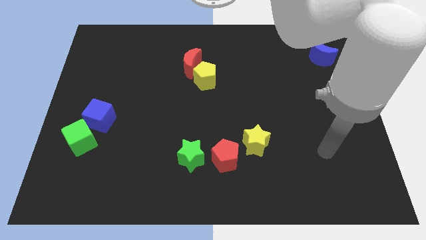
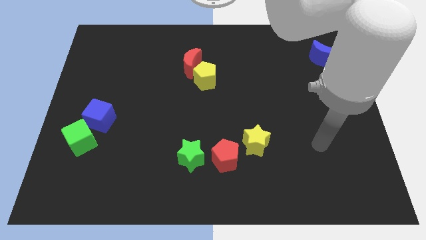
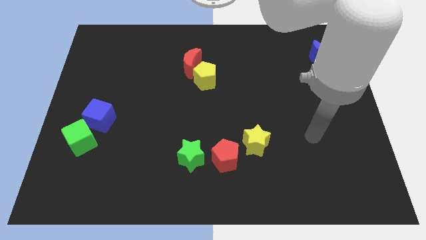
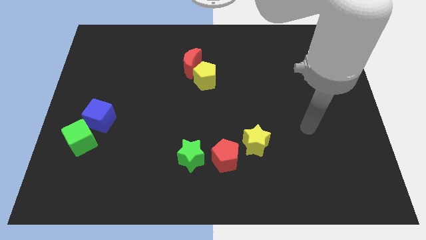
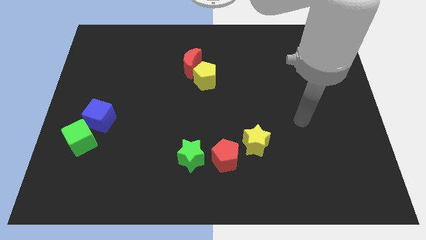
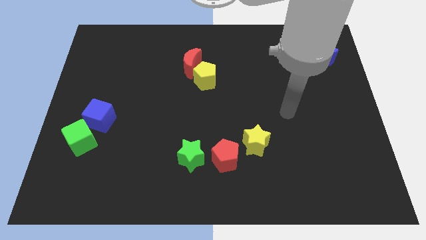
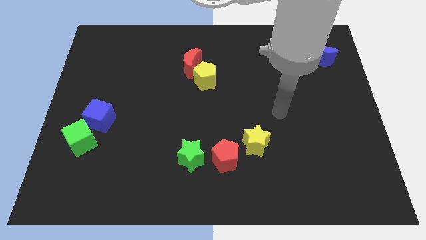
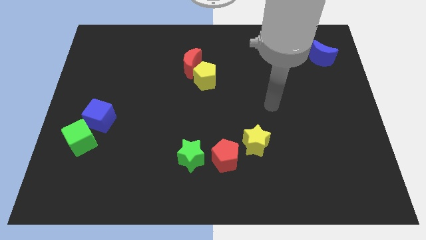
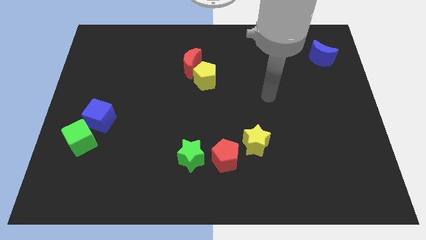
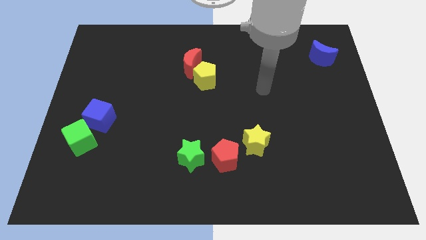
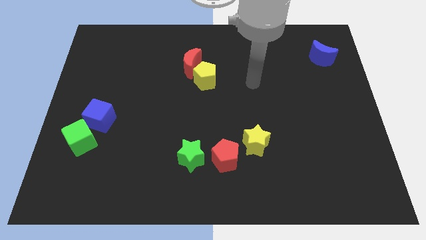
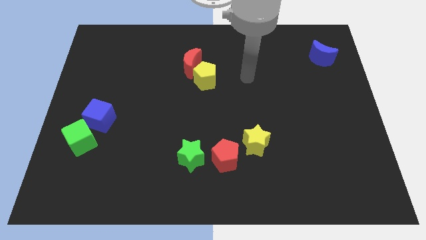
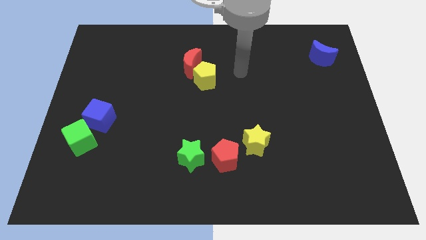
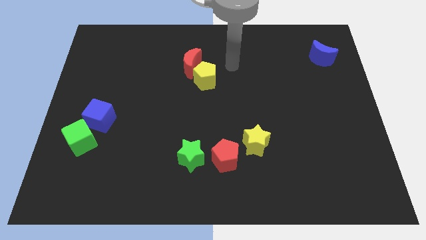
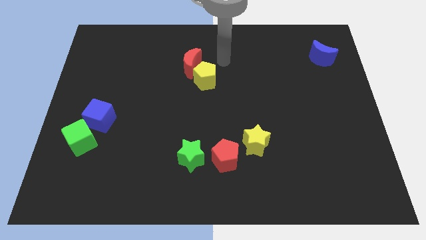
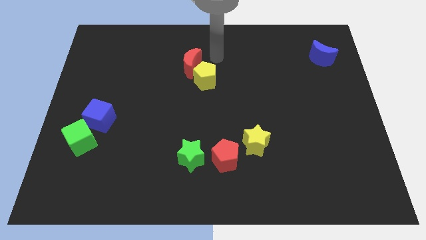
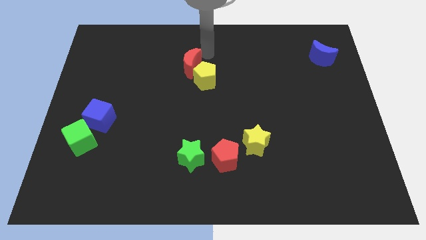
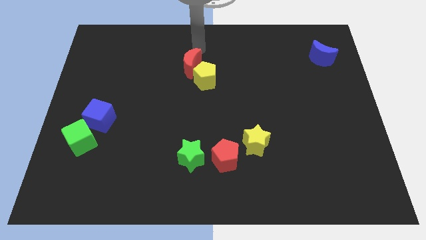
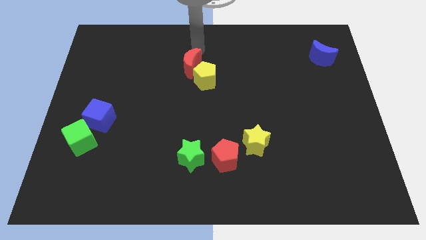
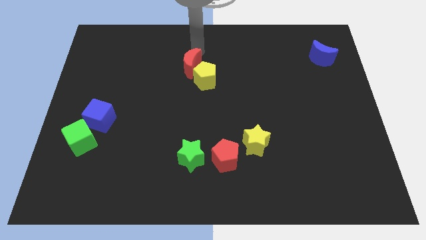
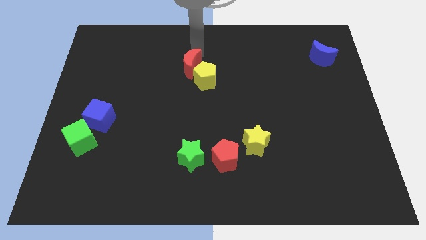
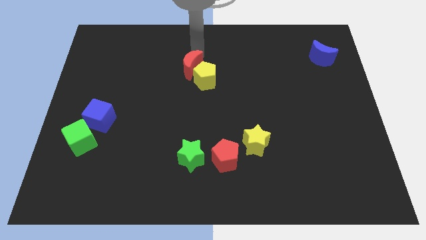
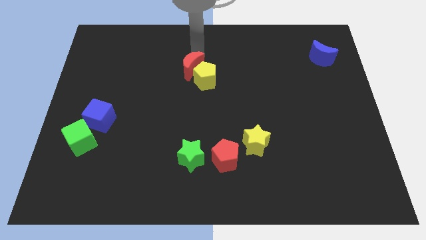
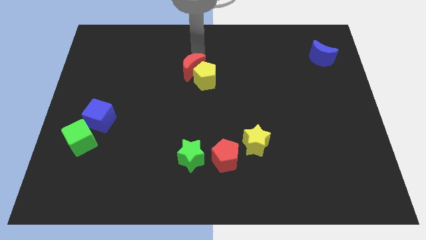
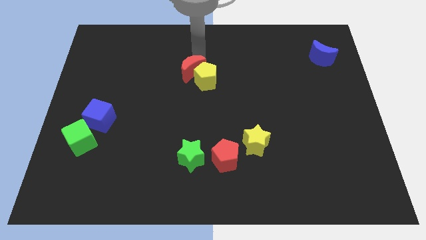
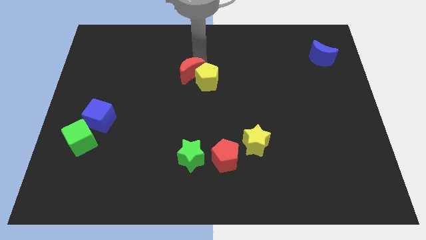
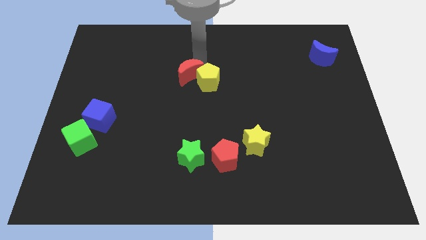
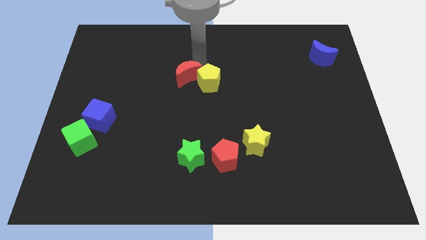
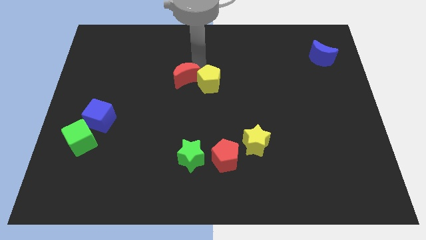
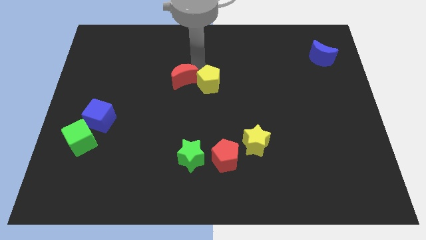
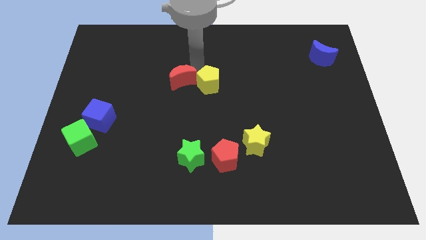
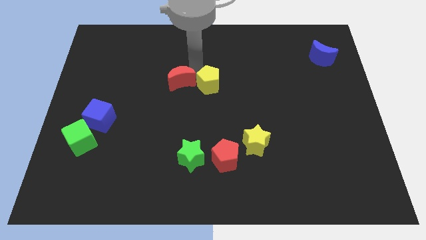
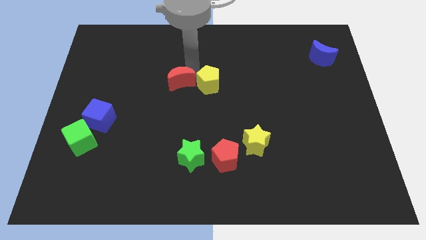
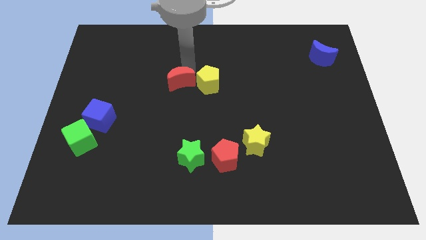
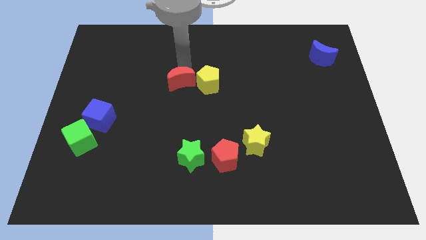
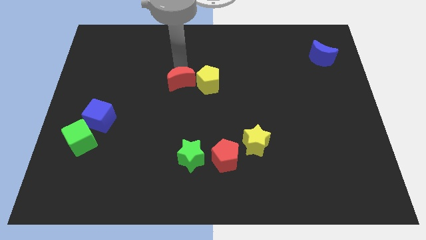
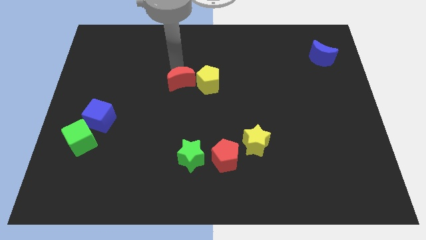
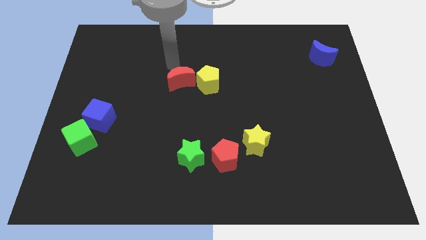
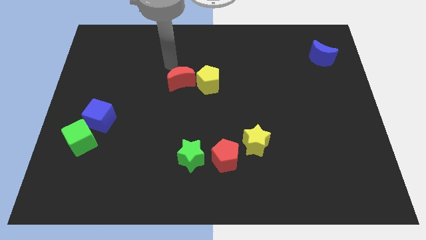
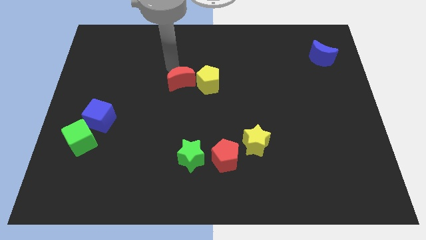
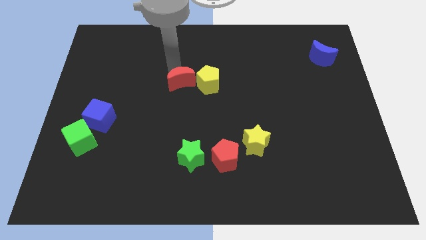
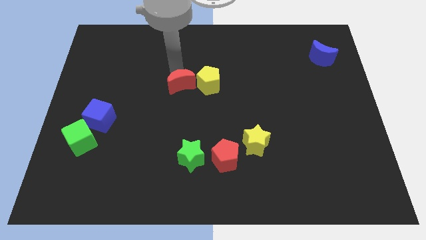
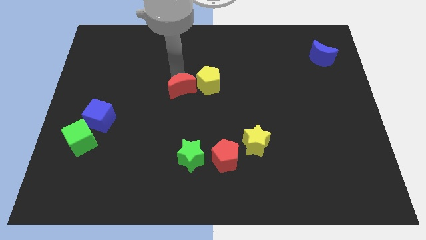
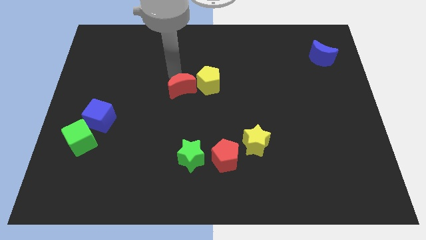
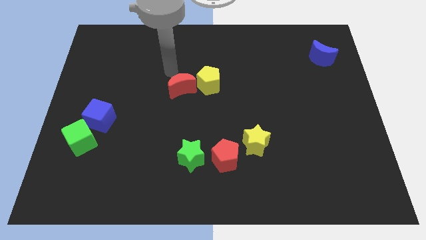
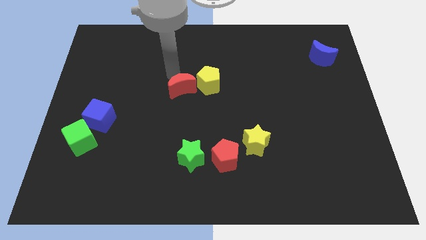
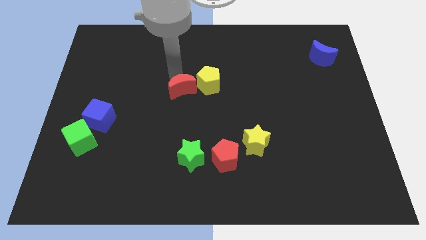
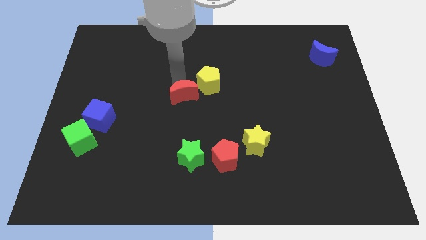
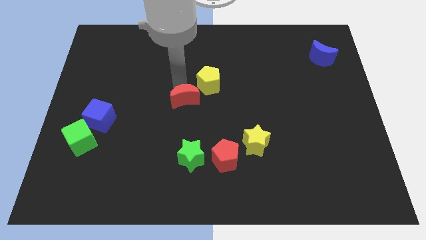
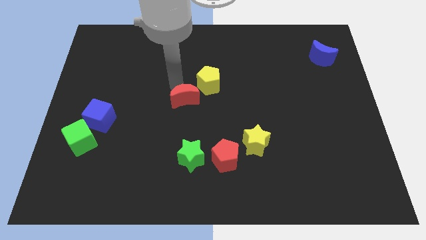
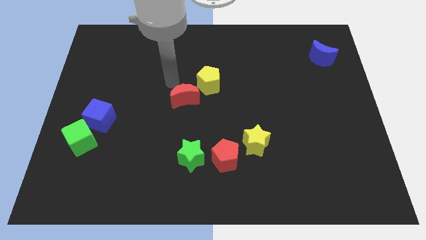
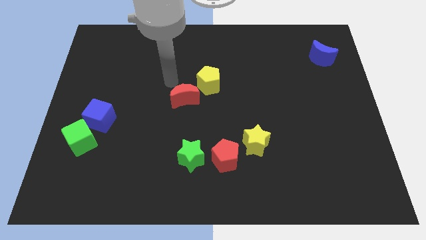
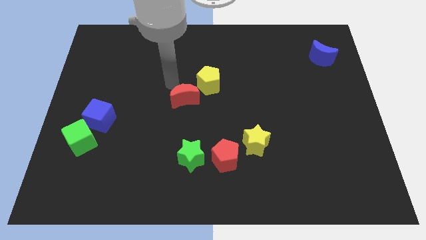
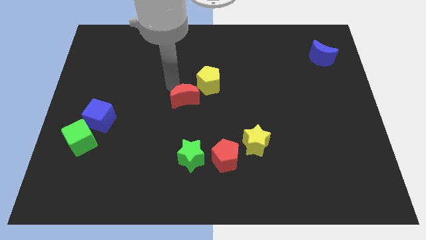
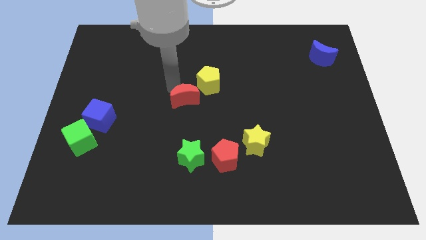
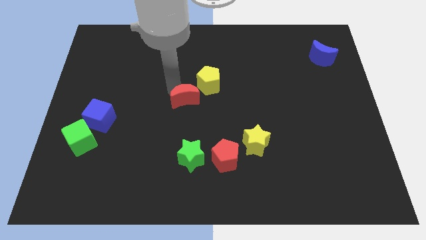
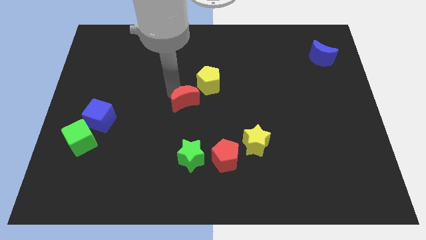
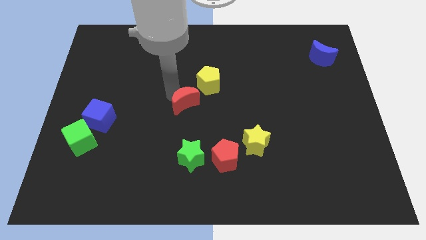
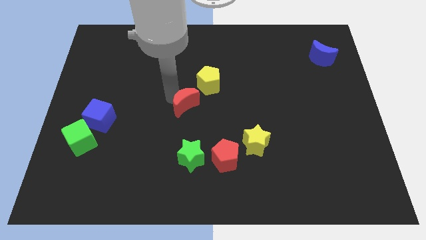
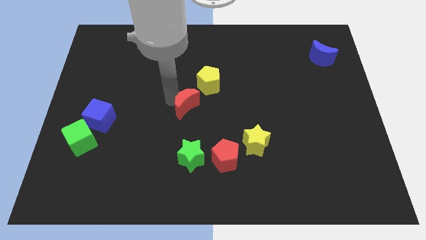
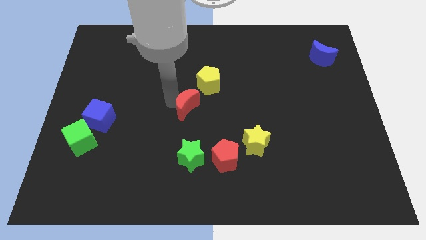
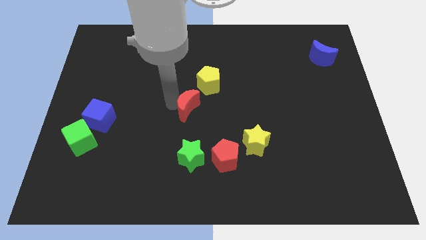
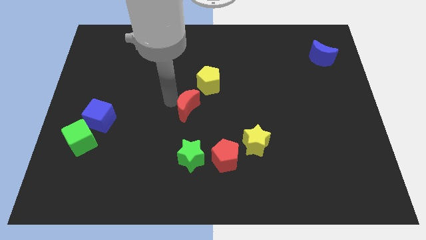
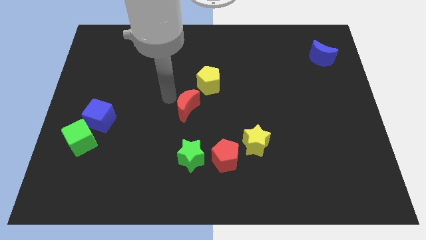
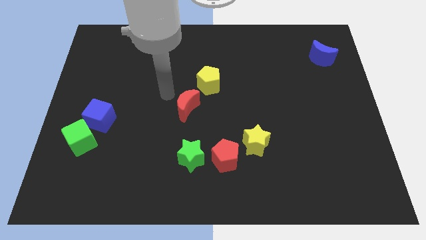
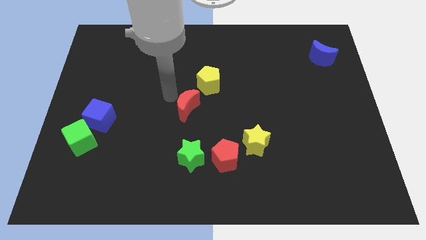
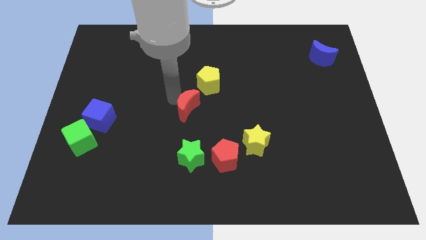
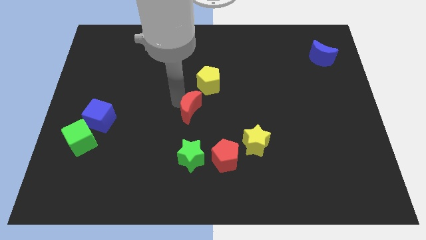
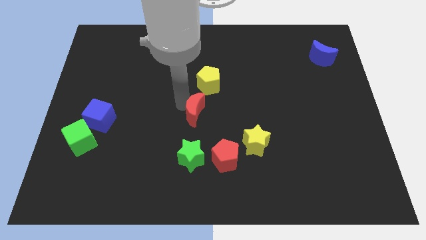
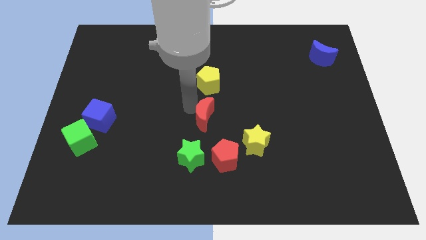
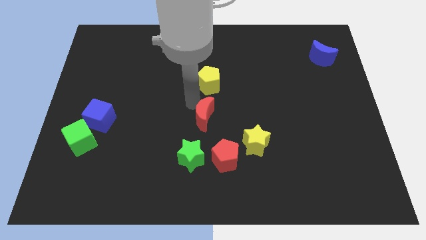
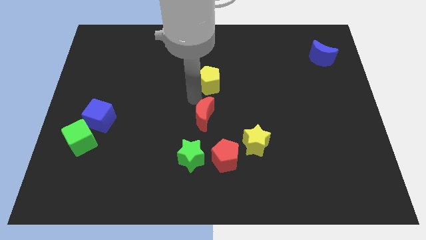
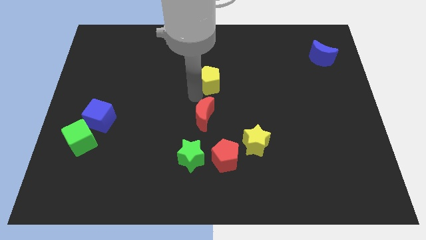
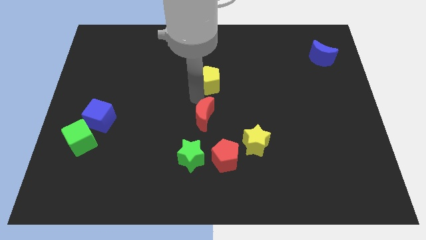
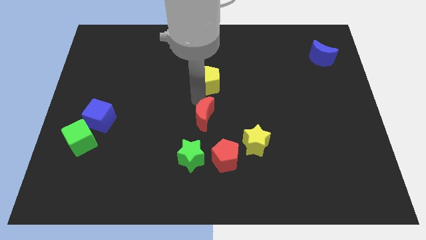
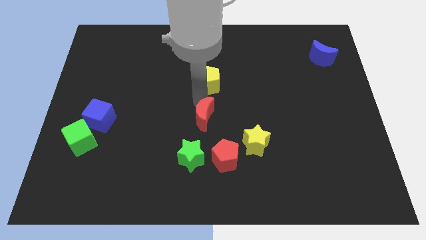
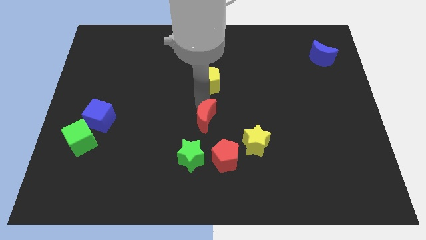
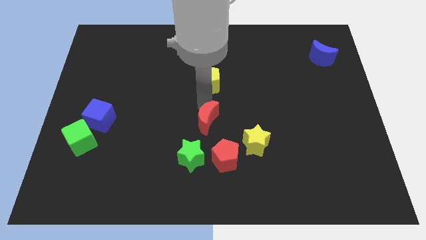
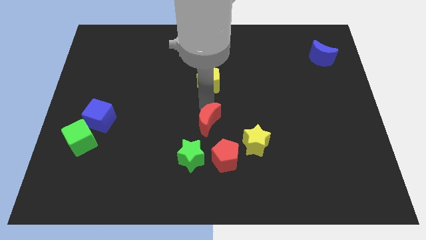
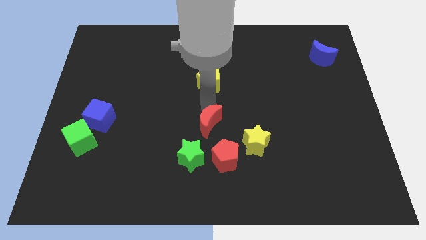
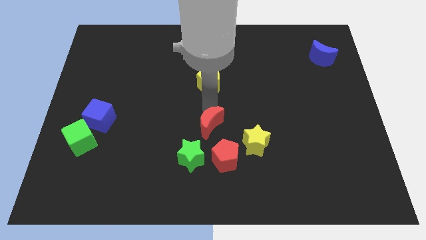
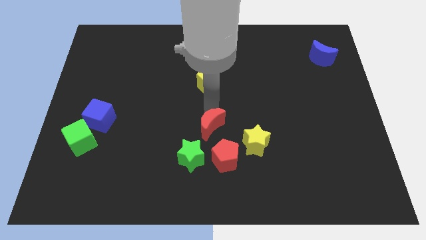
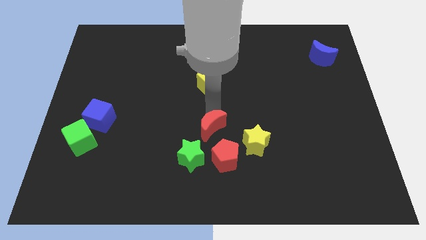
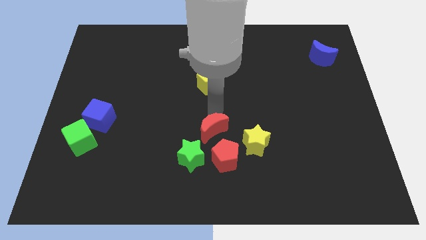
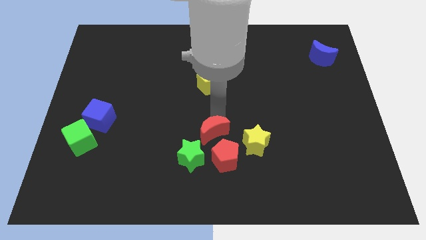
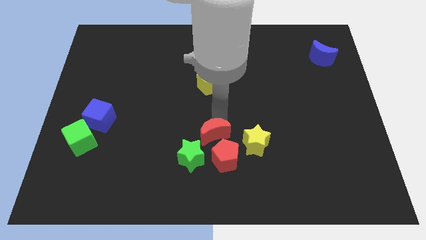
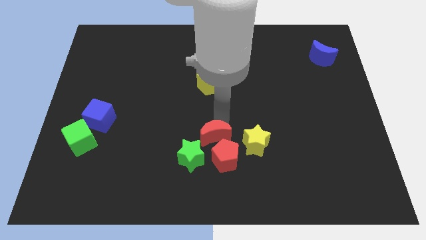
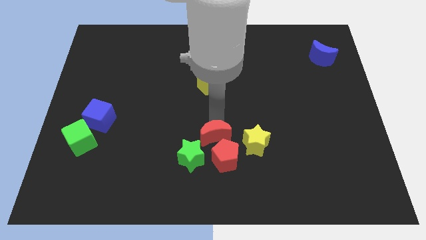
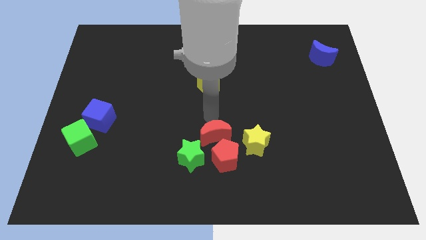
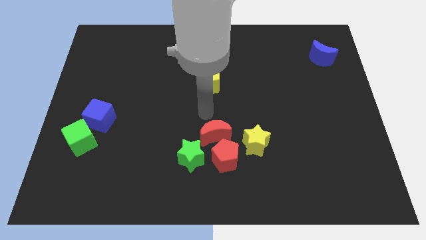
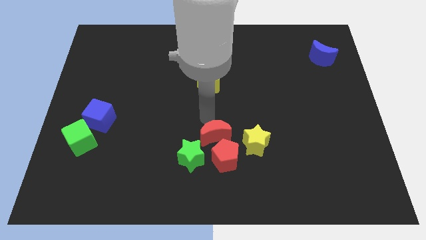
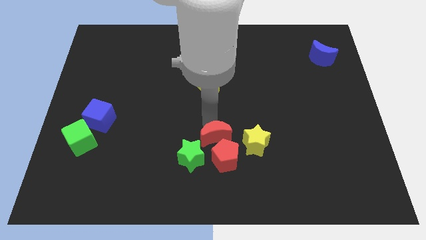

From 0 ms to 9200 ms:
put the red moon to the red pentagon
